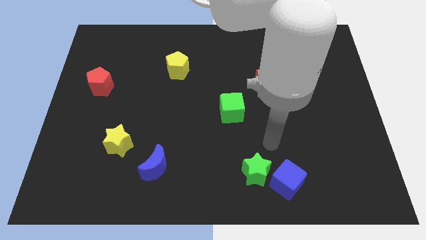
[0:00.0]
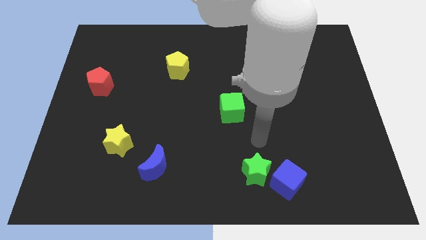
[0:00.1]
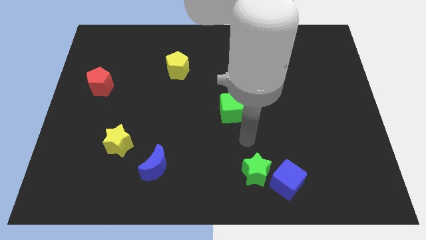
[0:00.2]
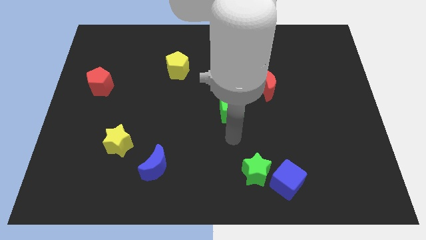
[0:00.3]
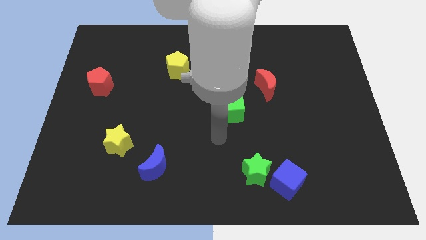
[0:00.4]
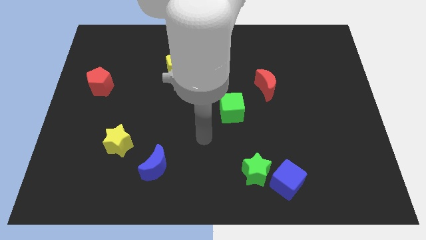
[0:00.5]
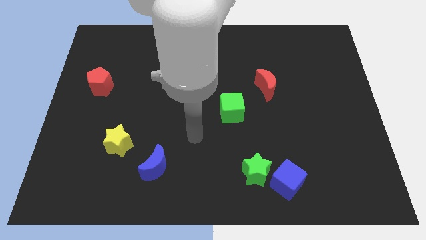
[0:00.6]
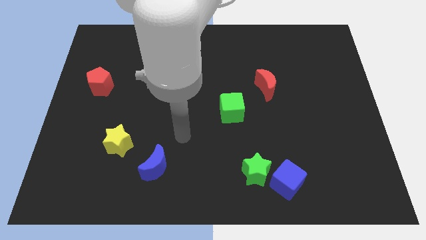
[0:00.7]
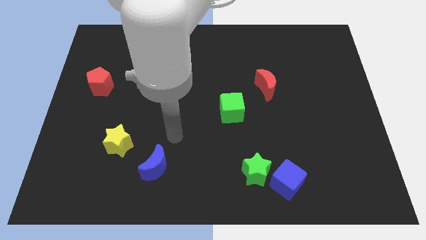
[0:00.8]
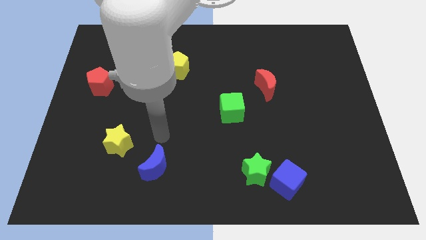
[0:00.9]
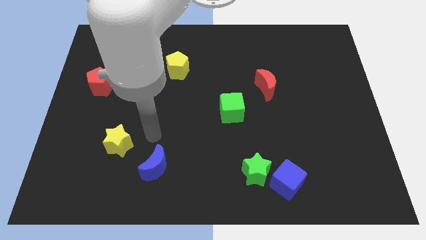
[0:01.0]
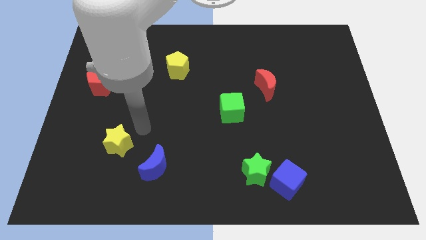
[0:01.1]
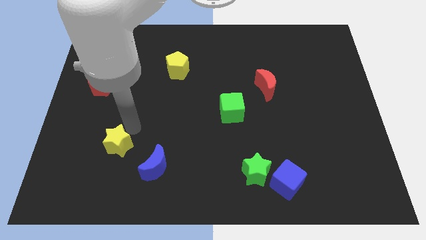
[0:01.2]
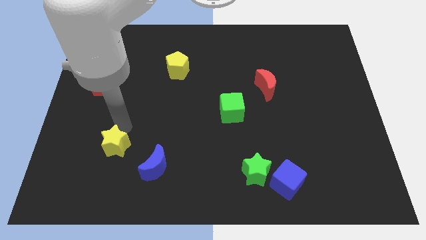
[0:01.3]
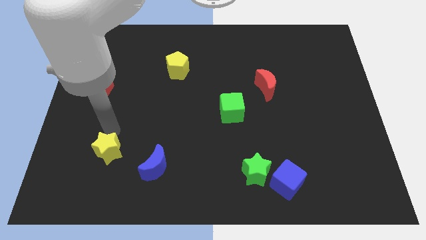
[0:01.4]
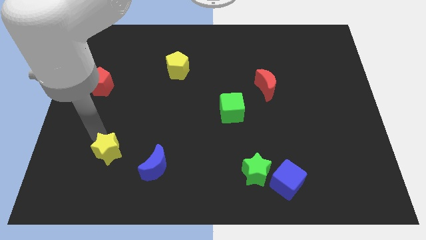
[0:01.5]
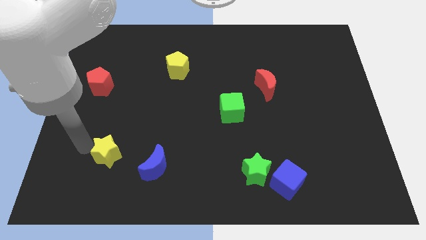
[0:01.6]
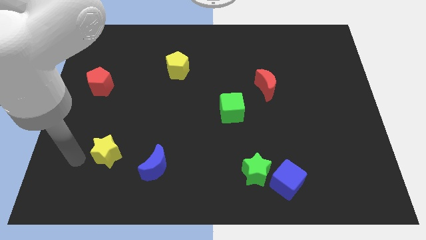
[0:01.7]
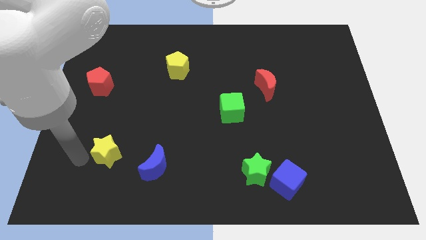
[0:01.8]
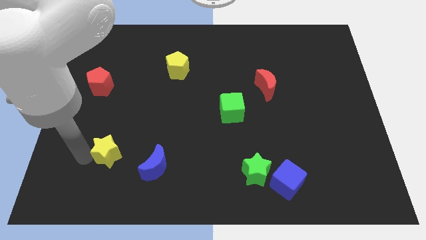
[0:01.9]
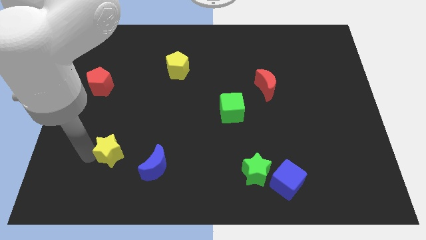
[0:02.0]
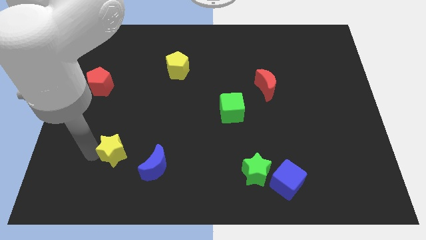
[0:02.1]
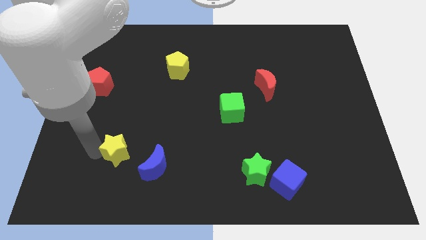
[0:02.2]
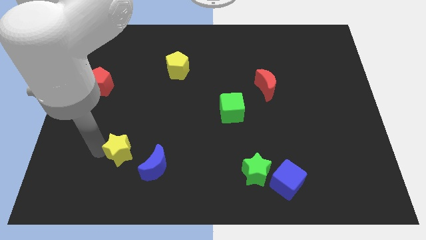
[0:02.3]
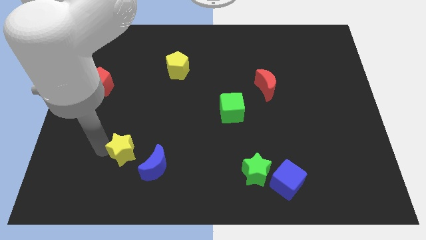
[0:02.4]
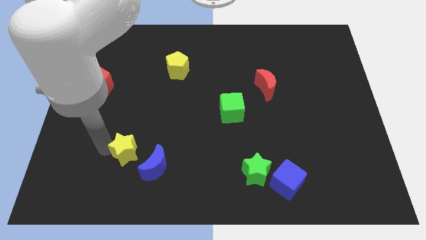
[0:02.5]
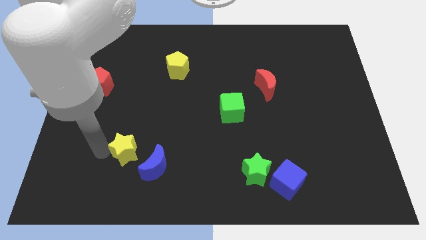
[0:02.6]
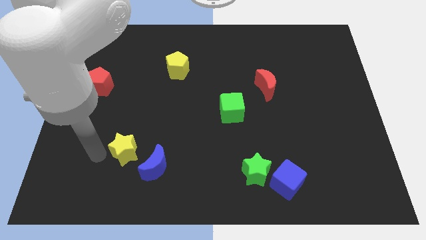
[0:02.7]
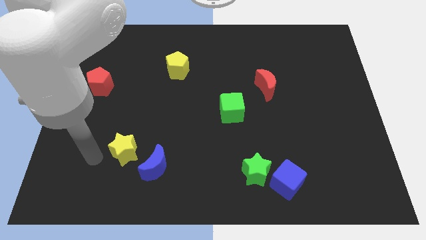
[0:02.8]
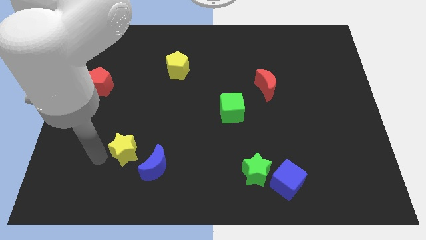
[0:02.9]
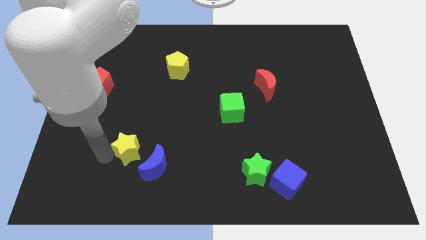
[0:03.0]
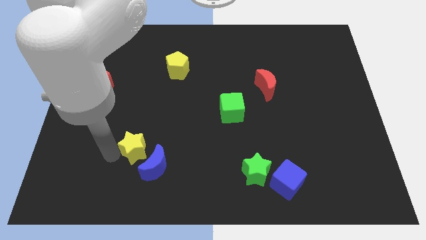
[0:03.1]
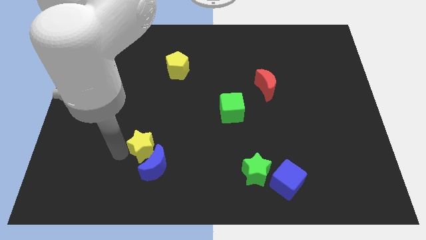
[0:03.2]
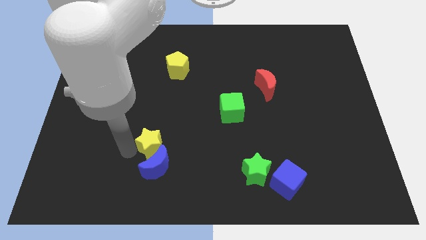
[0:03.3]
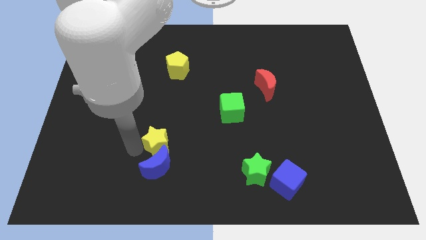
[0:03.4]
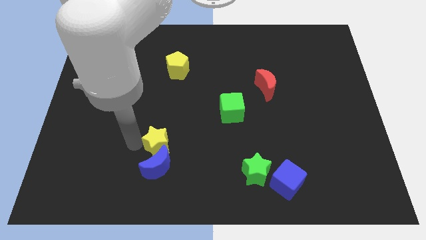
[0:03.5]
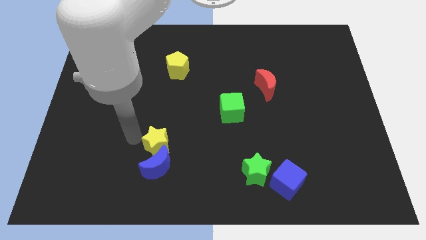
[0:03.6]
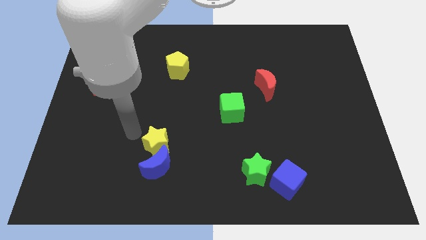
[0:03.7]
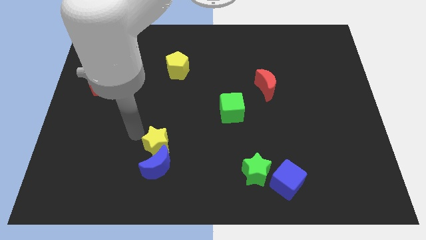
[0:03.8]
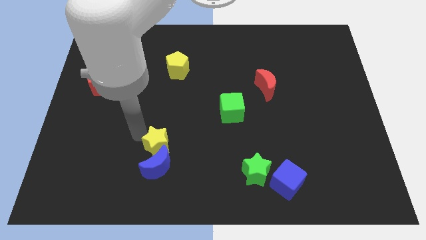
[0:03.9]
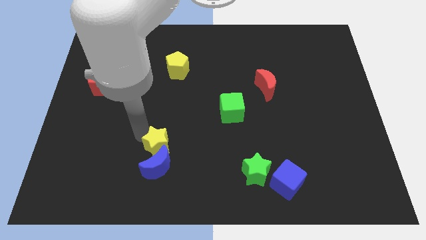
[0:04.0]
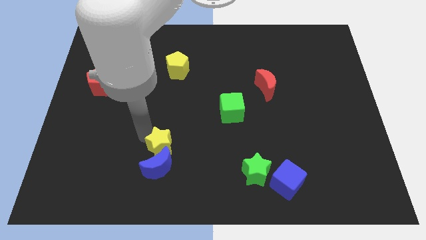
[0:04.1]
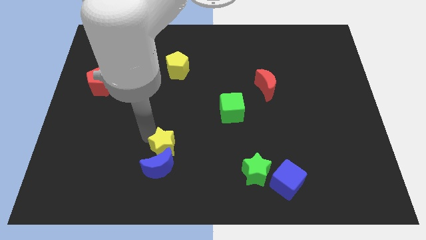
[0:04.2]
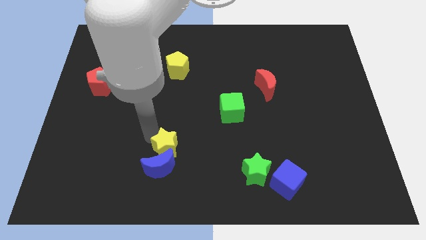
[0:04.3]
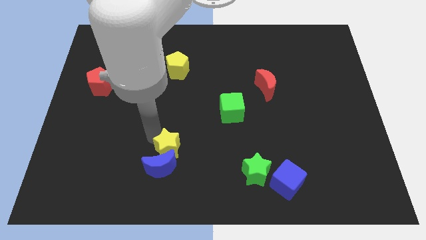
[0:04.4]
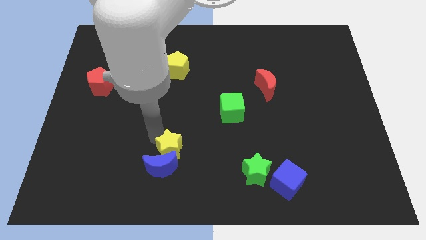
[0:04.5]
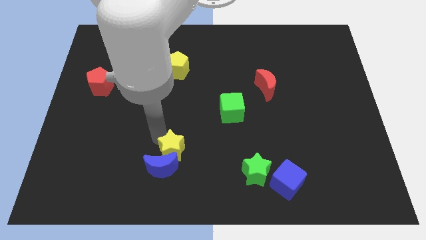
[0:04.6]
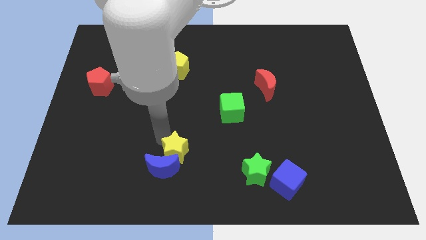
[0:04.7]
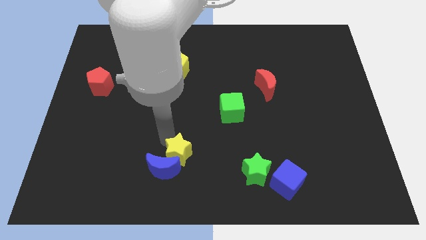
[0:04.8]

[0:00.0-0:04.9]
slide the yellow star to the right side of the blue moon

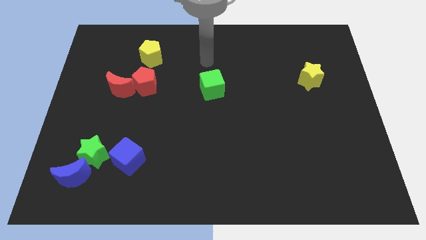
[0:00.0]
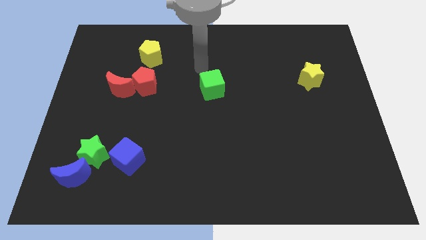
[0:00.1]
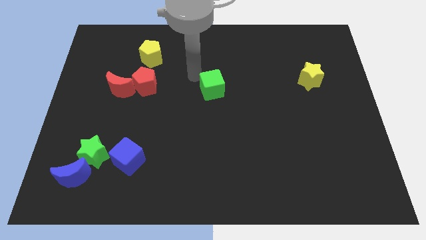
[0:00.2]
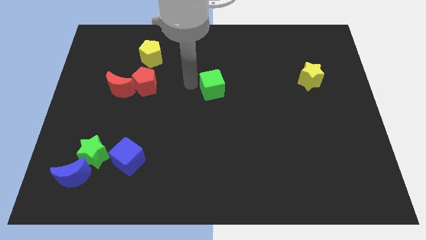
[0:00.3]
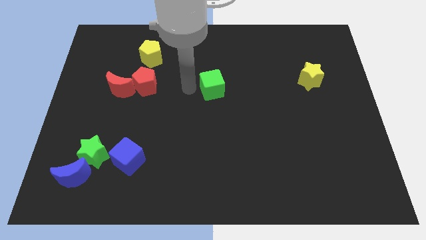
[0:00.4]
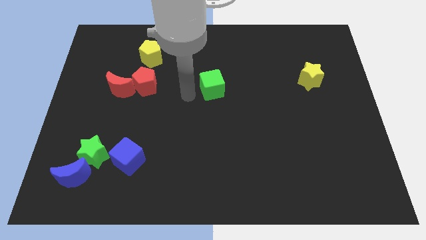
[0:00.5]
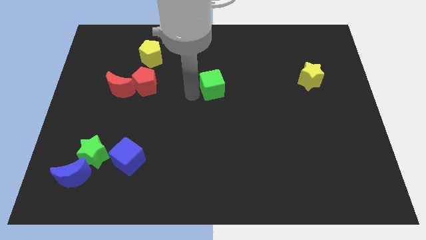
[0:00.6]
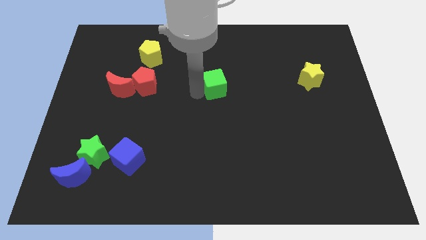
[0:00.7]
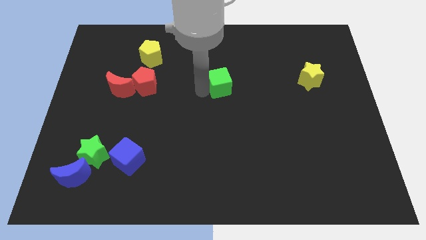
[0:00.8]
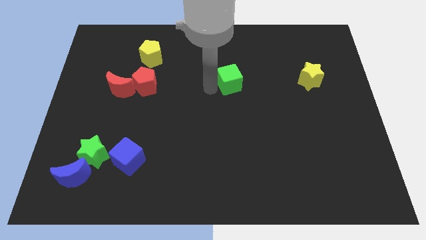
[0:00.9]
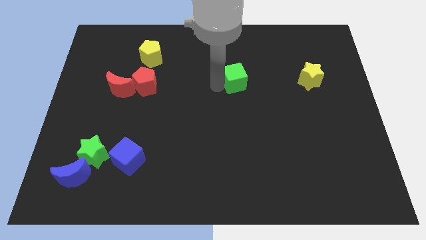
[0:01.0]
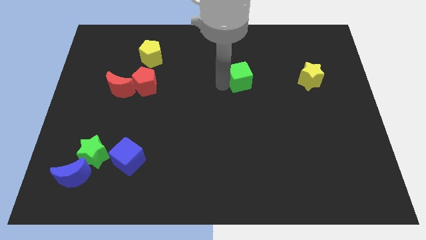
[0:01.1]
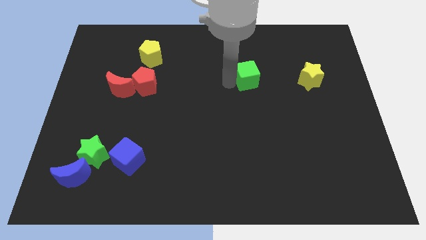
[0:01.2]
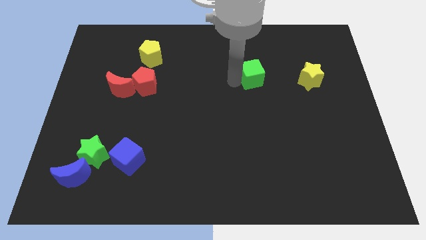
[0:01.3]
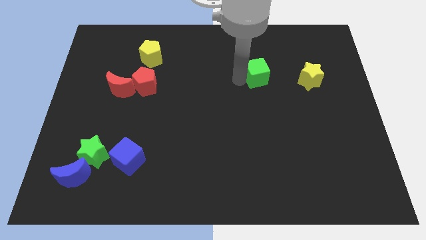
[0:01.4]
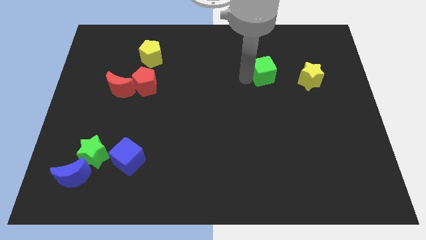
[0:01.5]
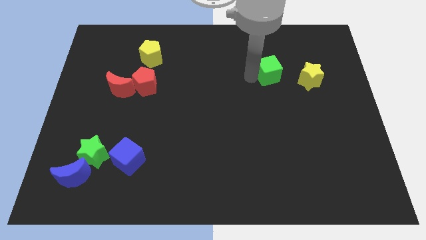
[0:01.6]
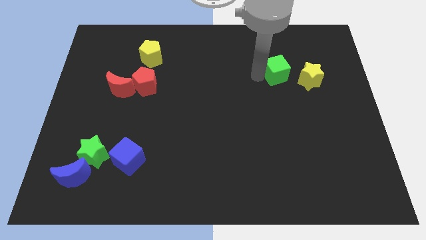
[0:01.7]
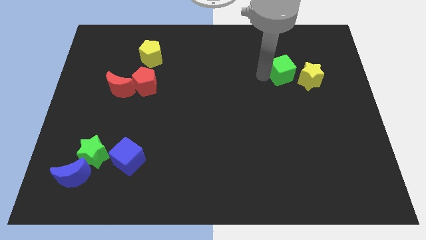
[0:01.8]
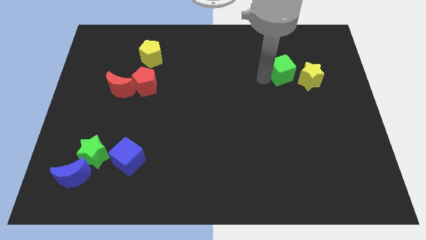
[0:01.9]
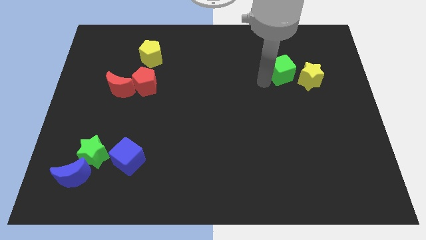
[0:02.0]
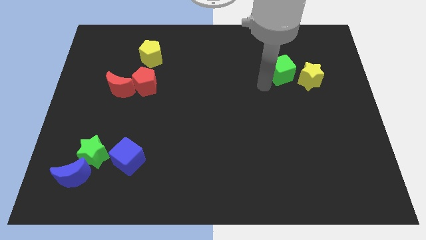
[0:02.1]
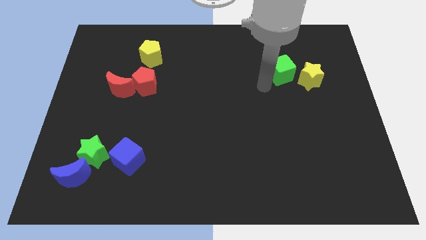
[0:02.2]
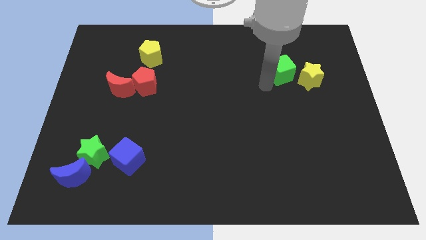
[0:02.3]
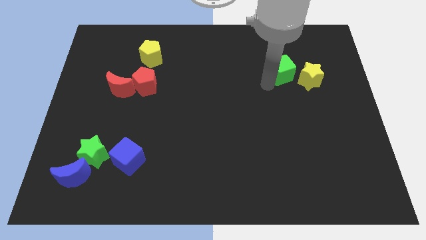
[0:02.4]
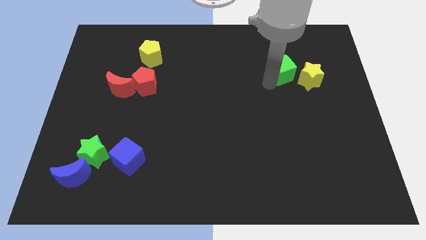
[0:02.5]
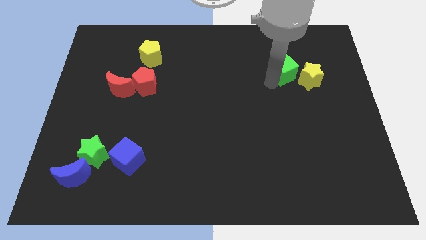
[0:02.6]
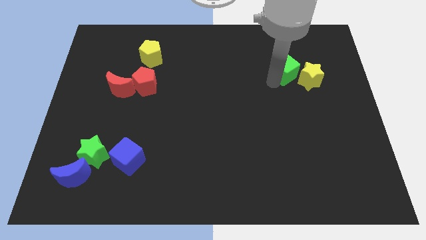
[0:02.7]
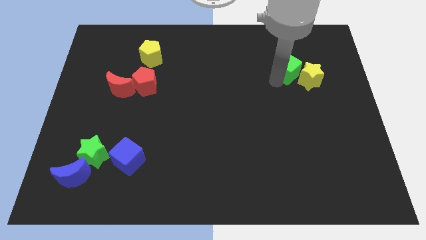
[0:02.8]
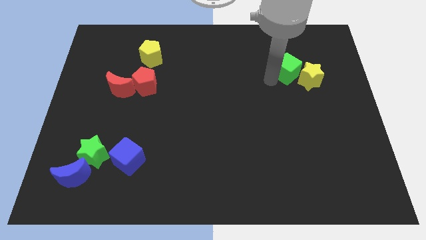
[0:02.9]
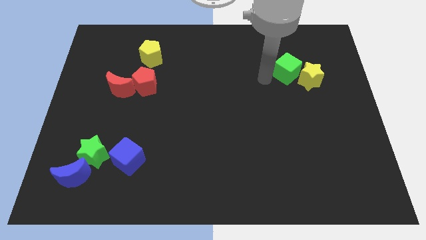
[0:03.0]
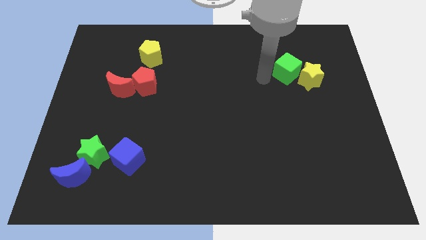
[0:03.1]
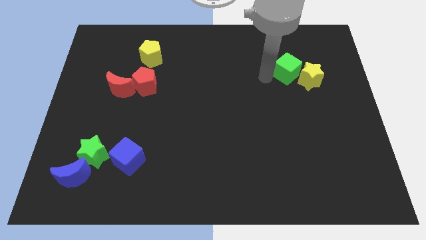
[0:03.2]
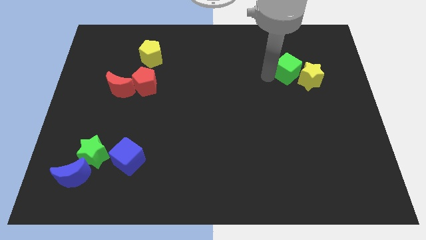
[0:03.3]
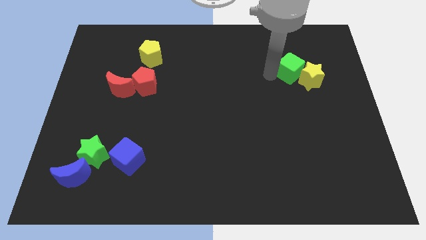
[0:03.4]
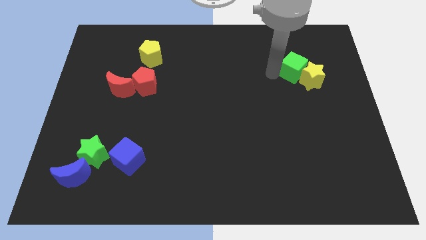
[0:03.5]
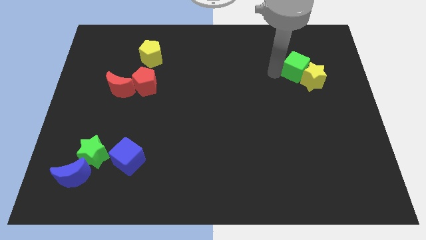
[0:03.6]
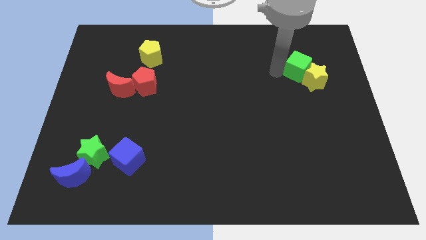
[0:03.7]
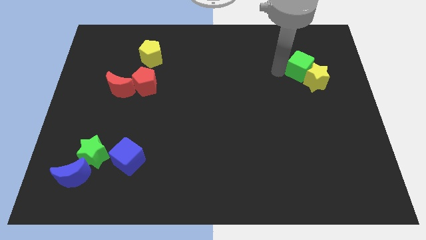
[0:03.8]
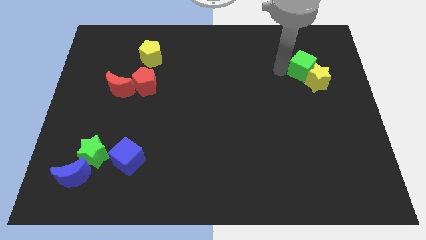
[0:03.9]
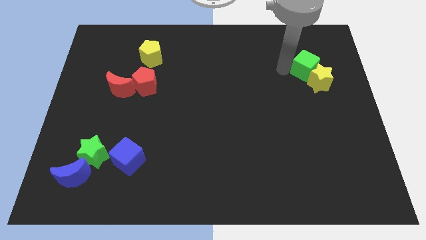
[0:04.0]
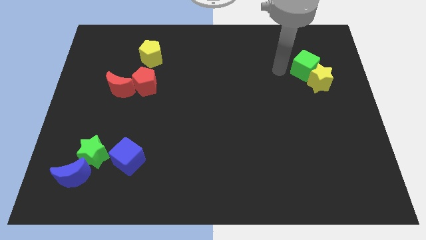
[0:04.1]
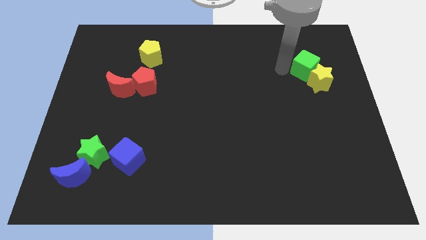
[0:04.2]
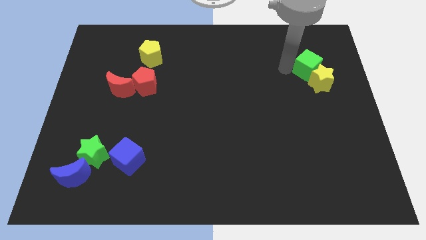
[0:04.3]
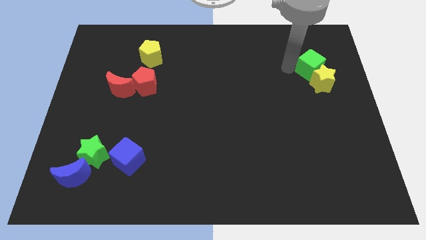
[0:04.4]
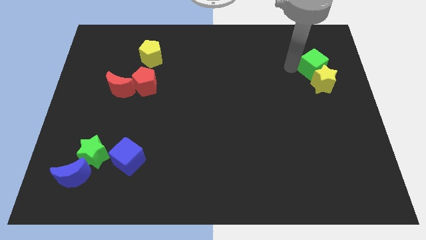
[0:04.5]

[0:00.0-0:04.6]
slide the green cube diagonally up and to the right of the yellow star
